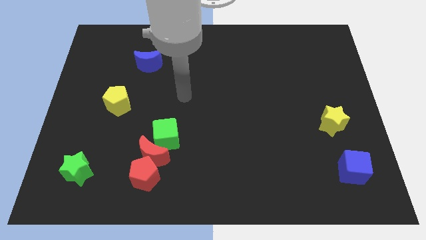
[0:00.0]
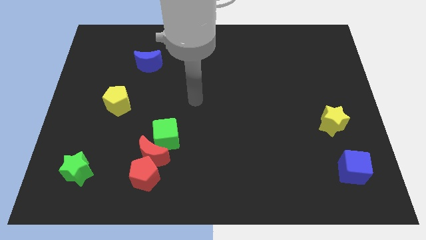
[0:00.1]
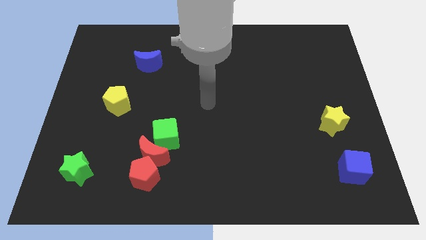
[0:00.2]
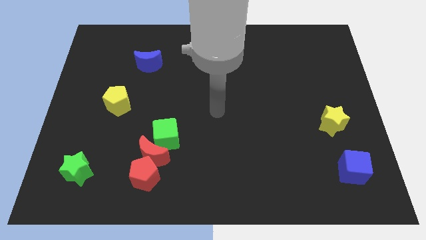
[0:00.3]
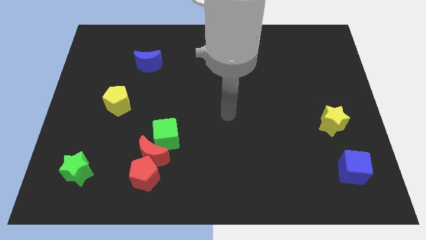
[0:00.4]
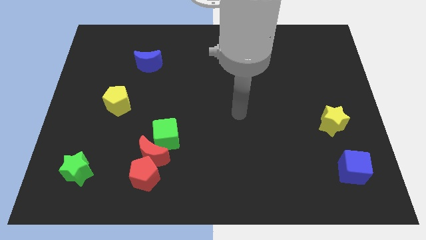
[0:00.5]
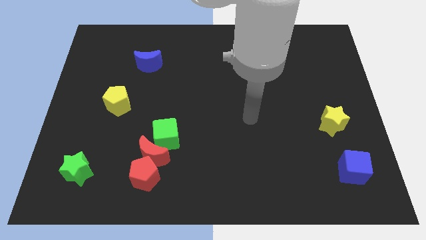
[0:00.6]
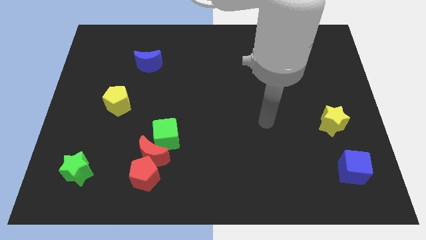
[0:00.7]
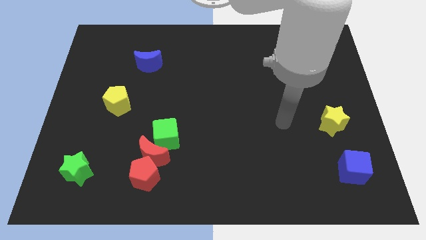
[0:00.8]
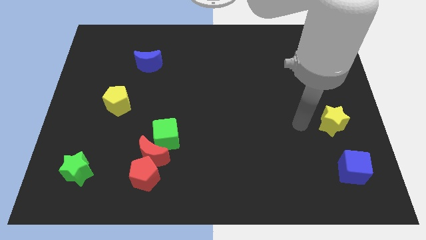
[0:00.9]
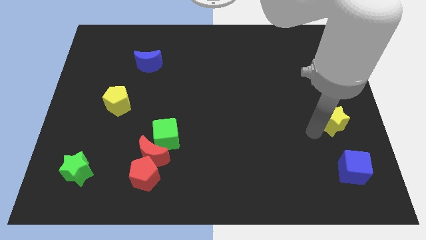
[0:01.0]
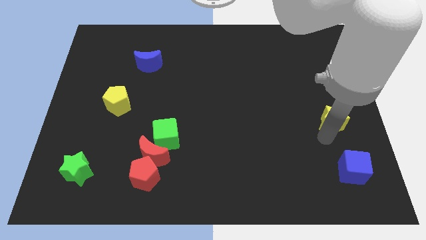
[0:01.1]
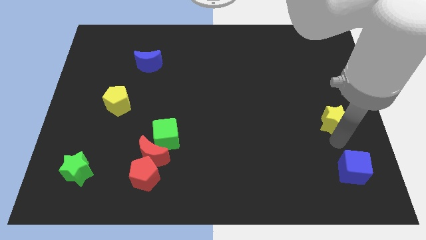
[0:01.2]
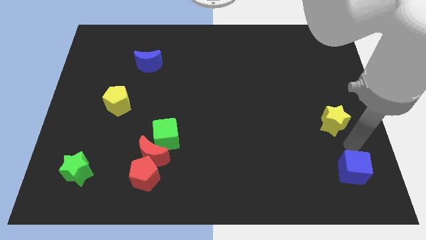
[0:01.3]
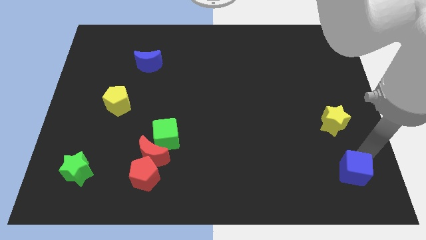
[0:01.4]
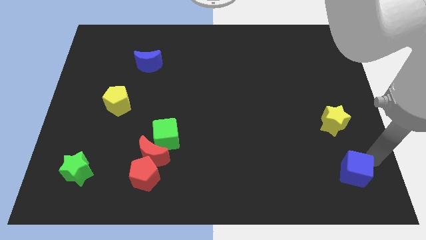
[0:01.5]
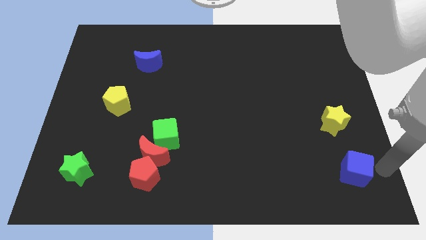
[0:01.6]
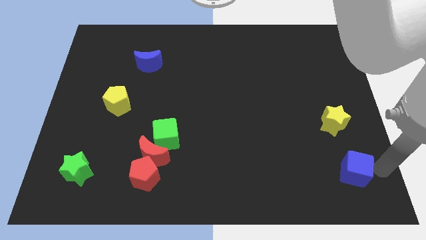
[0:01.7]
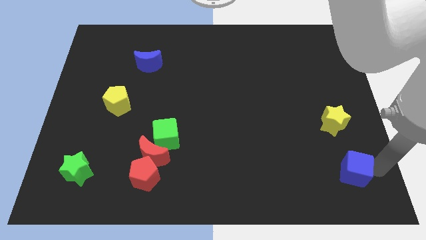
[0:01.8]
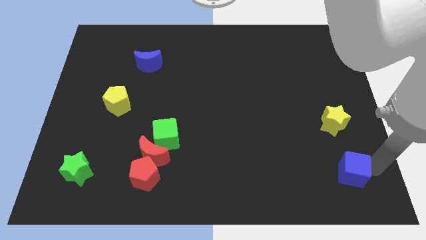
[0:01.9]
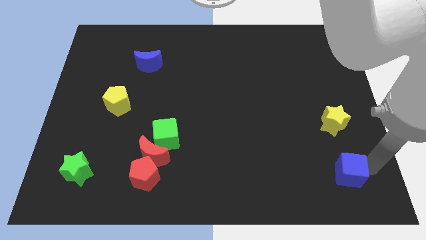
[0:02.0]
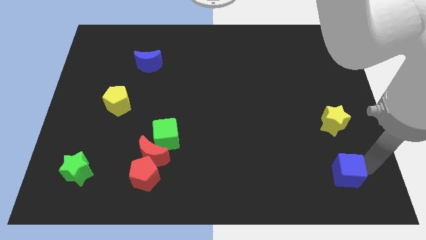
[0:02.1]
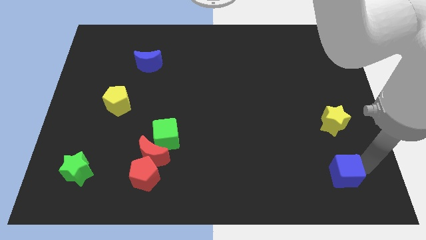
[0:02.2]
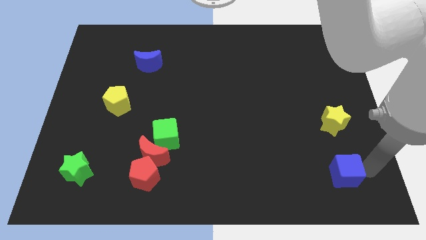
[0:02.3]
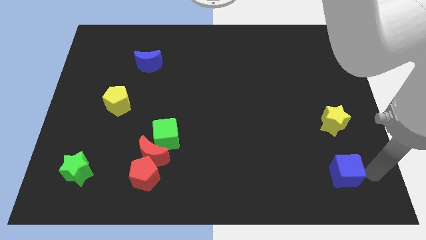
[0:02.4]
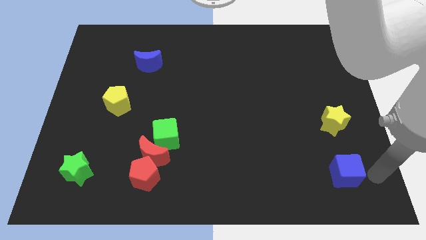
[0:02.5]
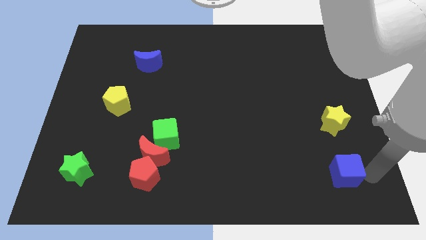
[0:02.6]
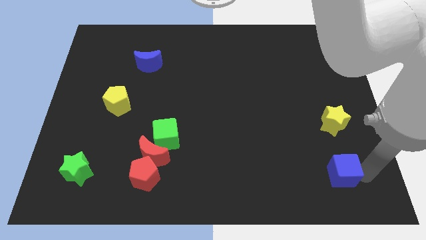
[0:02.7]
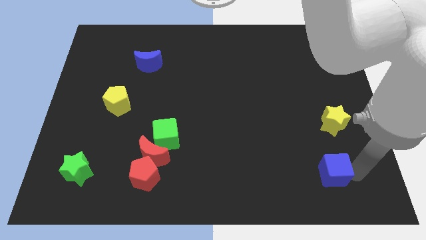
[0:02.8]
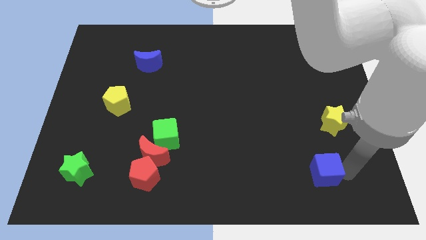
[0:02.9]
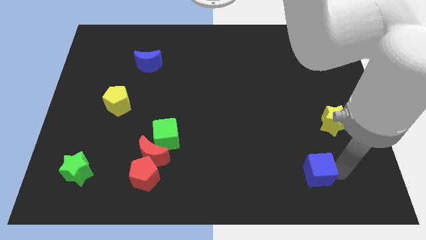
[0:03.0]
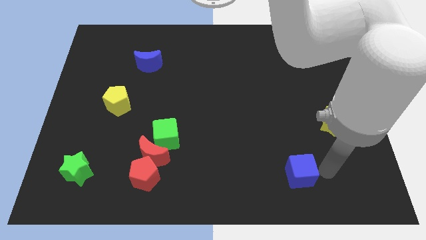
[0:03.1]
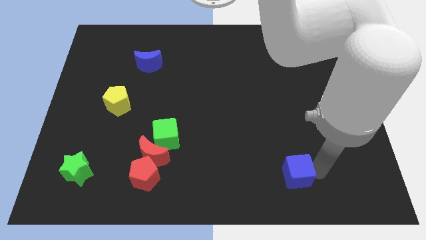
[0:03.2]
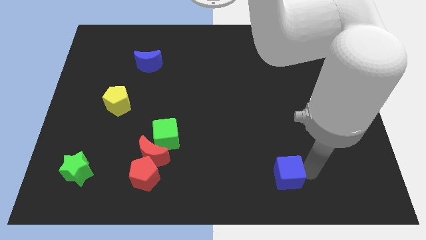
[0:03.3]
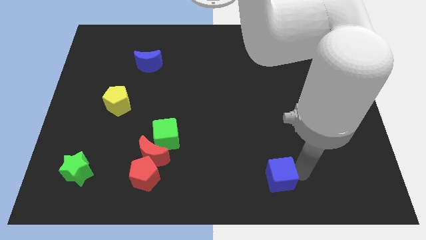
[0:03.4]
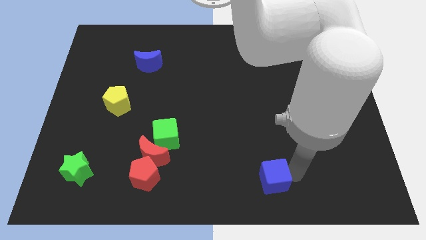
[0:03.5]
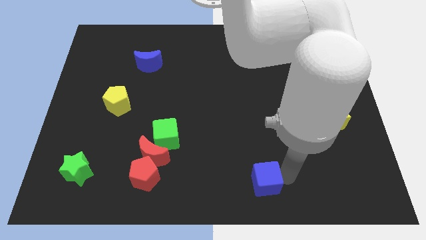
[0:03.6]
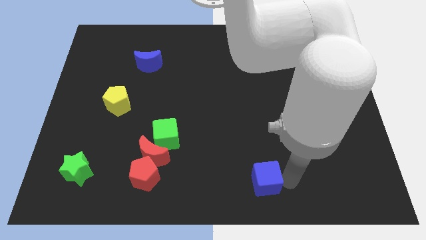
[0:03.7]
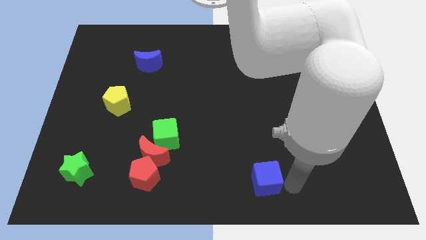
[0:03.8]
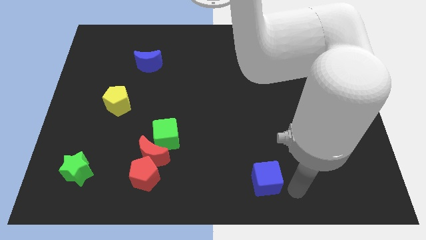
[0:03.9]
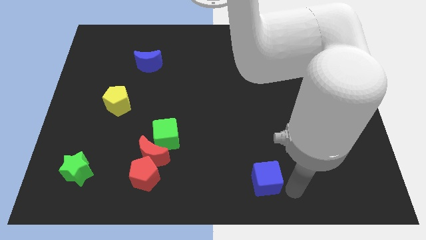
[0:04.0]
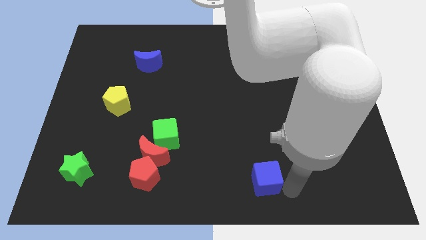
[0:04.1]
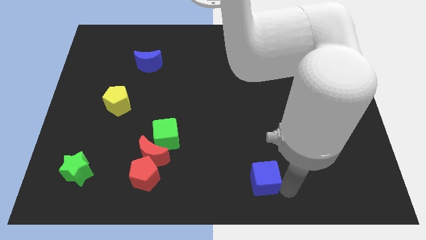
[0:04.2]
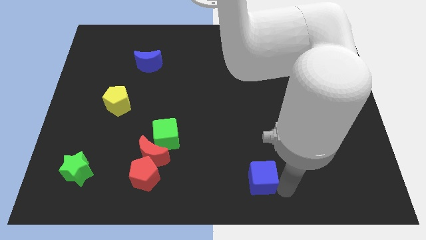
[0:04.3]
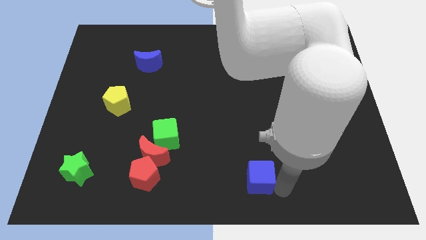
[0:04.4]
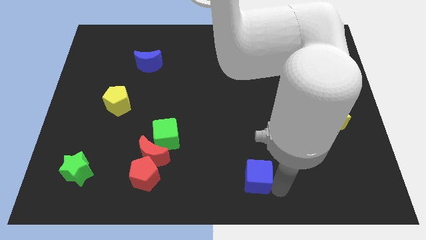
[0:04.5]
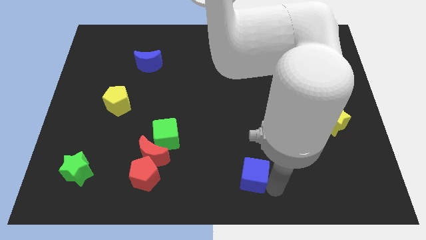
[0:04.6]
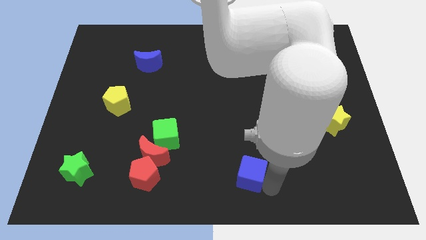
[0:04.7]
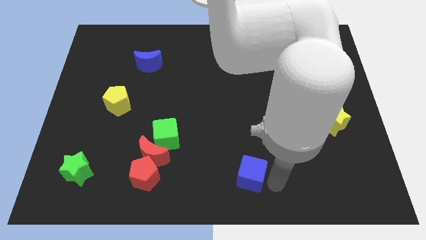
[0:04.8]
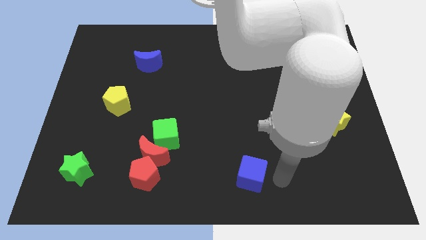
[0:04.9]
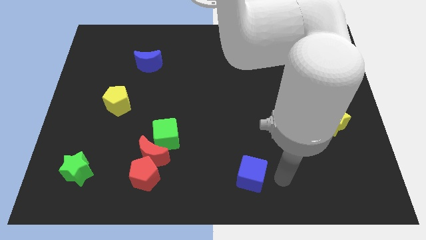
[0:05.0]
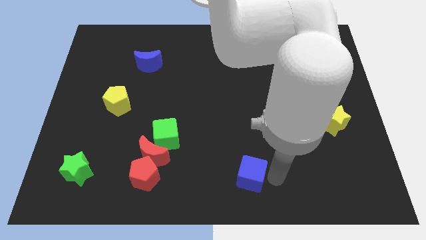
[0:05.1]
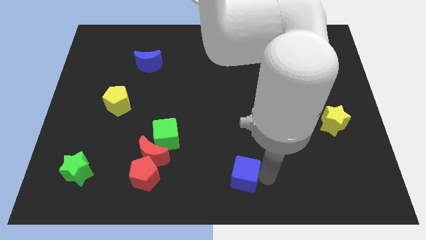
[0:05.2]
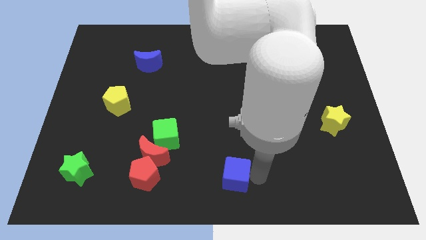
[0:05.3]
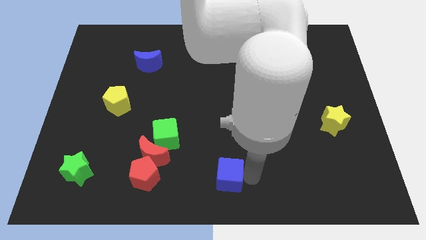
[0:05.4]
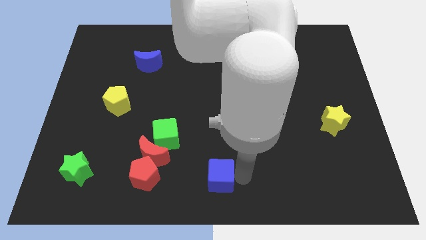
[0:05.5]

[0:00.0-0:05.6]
move the blue cube right of the red pentagon

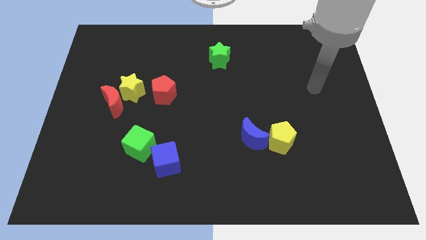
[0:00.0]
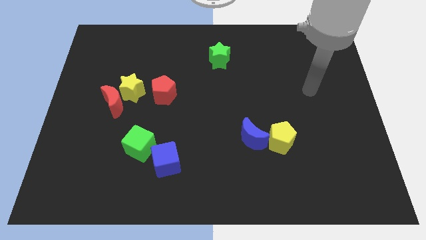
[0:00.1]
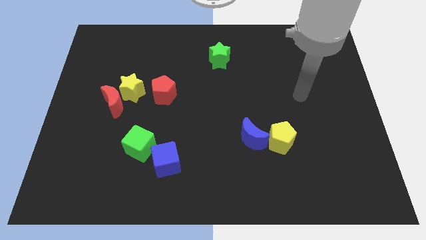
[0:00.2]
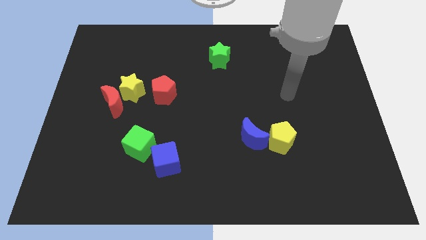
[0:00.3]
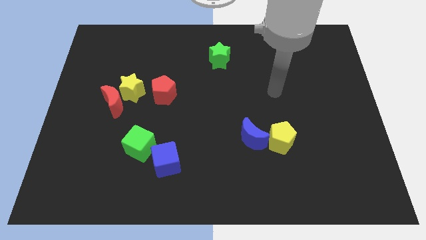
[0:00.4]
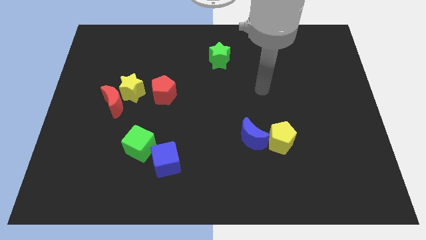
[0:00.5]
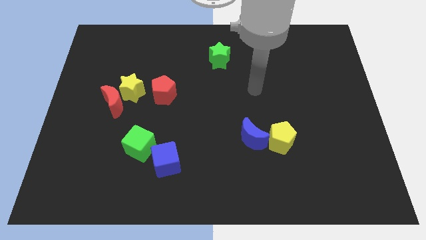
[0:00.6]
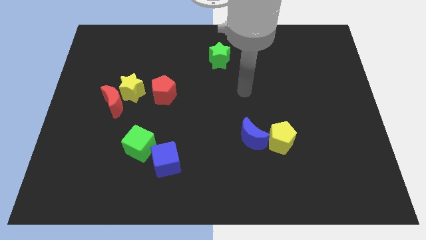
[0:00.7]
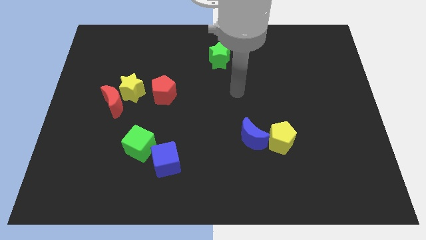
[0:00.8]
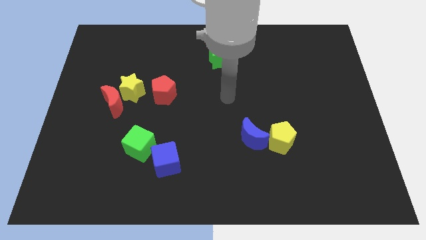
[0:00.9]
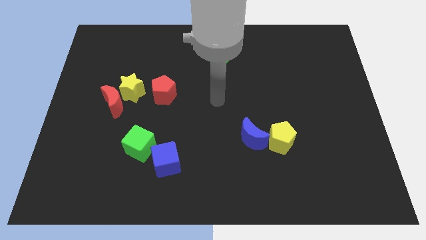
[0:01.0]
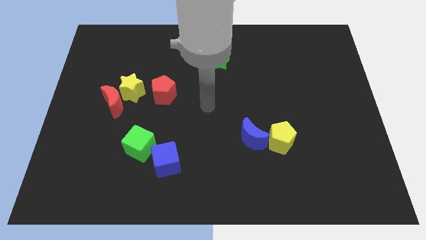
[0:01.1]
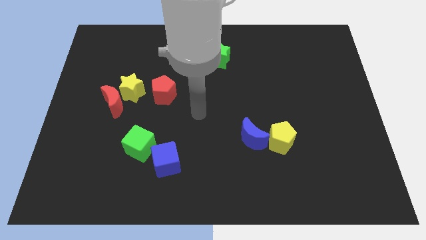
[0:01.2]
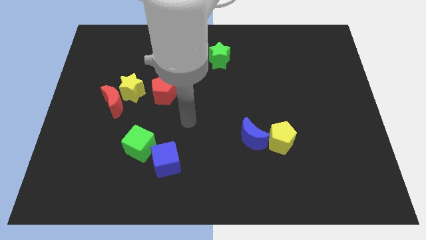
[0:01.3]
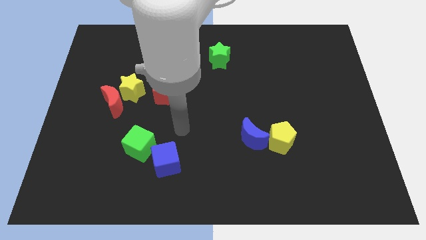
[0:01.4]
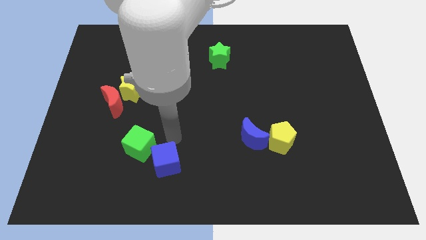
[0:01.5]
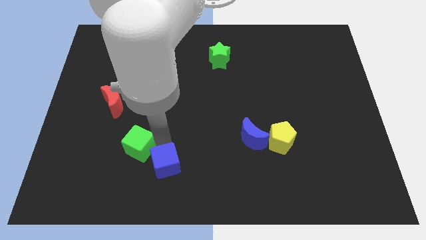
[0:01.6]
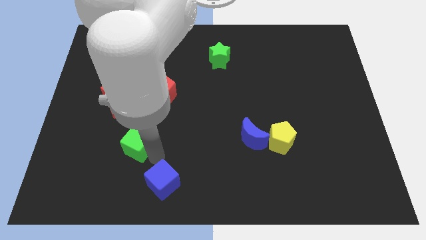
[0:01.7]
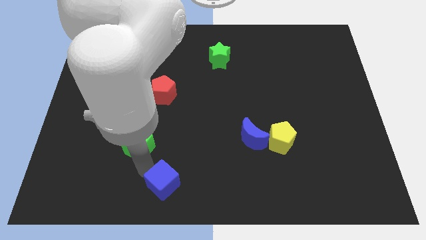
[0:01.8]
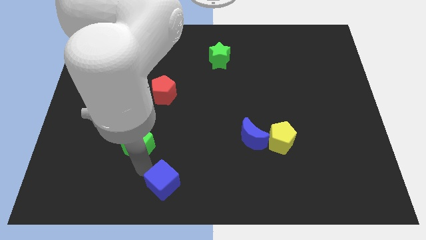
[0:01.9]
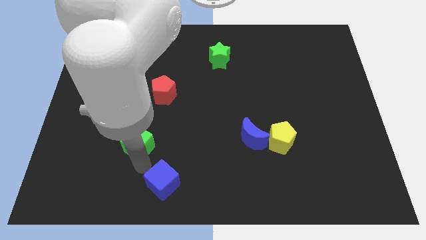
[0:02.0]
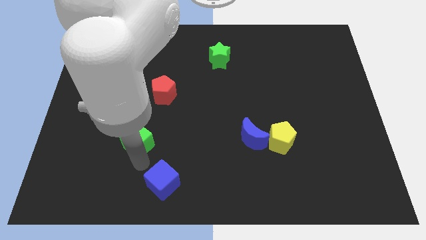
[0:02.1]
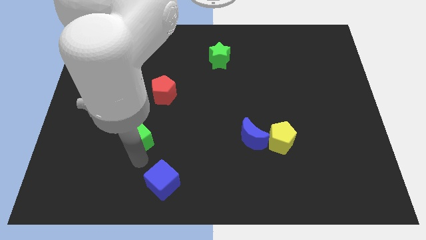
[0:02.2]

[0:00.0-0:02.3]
push the green cube to the bottom right side of the red moon
